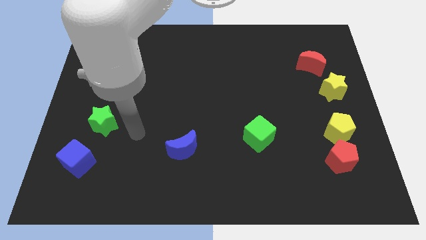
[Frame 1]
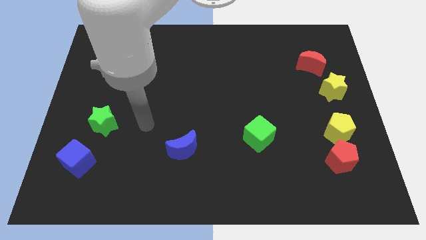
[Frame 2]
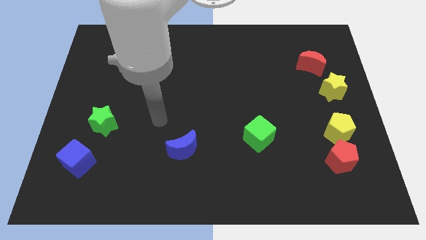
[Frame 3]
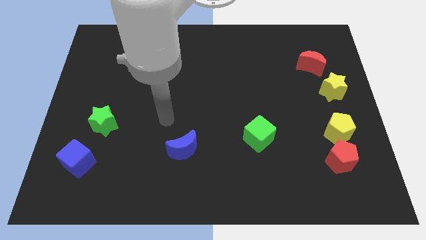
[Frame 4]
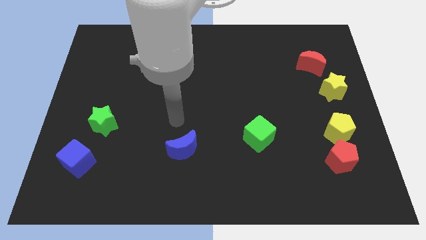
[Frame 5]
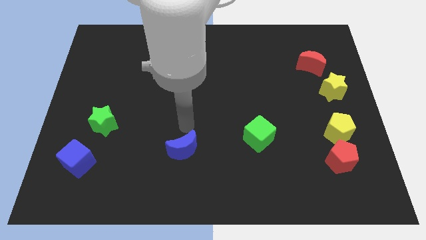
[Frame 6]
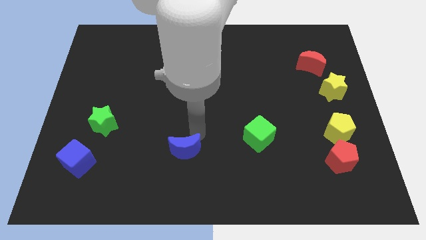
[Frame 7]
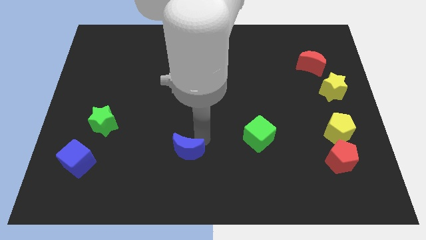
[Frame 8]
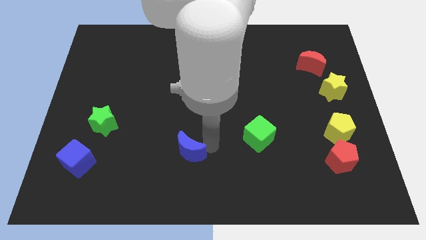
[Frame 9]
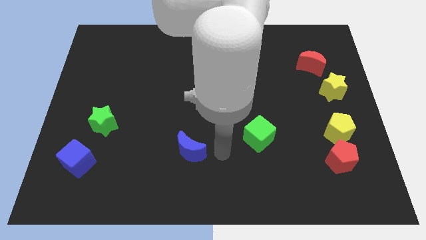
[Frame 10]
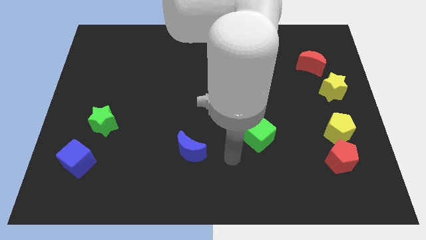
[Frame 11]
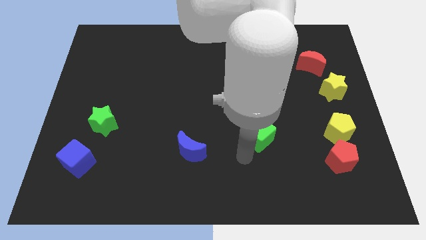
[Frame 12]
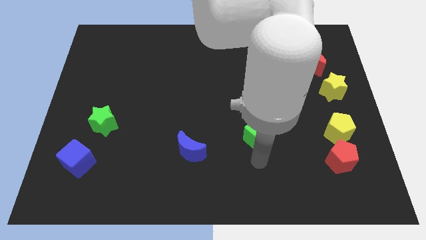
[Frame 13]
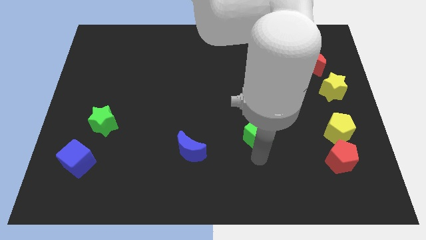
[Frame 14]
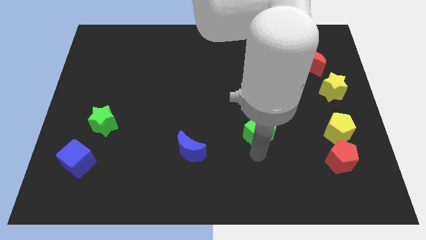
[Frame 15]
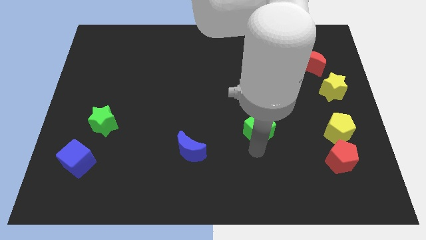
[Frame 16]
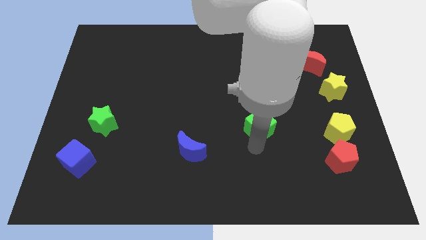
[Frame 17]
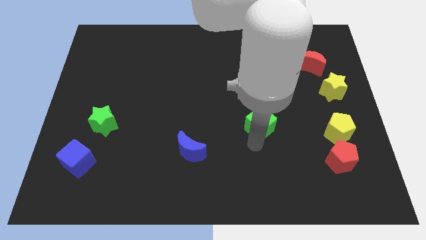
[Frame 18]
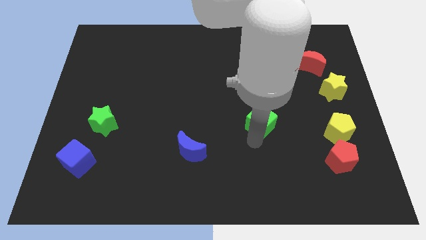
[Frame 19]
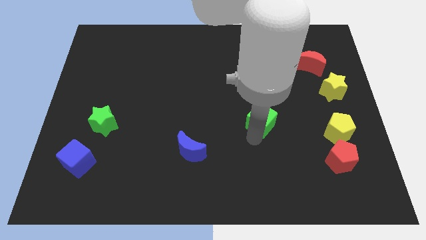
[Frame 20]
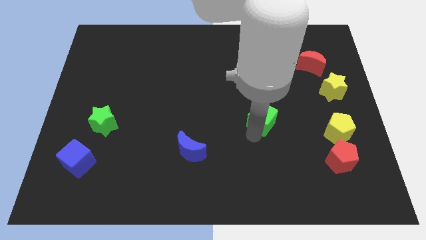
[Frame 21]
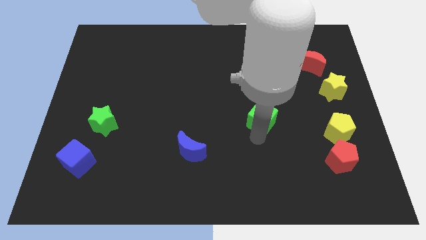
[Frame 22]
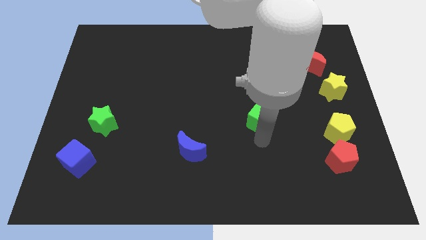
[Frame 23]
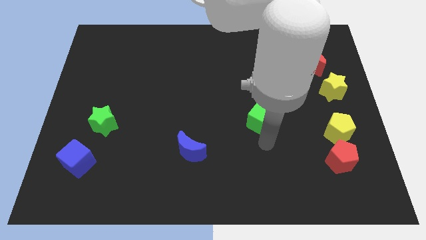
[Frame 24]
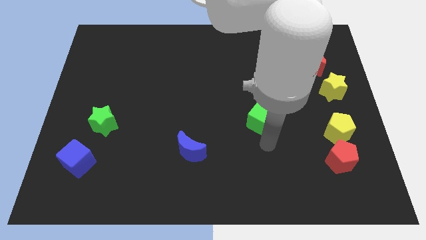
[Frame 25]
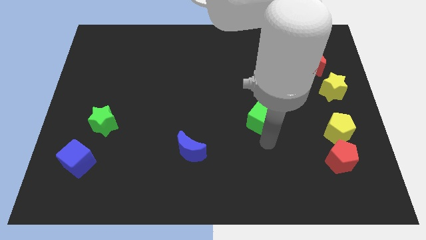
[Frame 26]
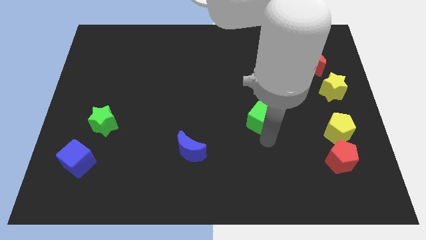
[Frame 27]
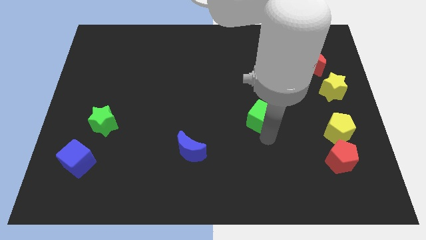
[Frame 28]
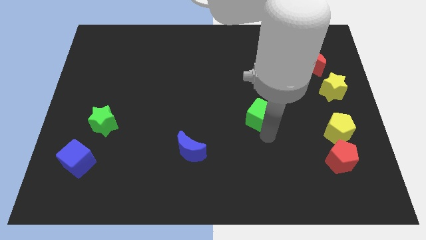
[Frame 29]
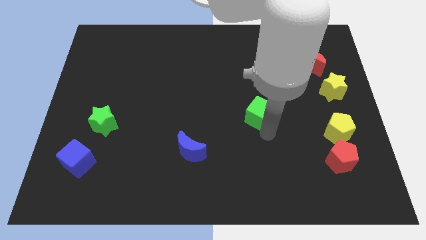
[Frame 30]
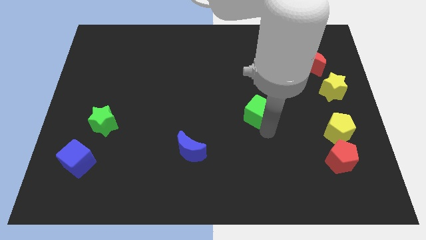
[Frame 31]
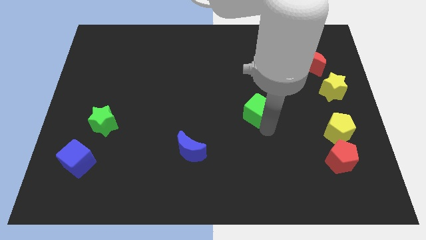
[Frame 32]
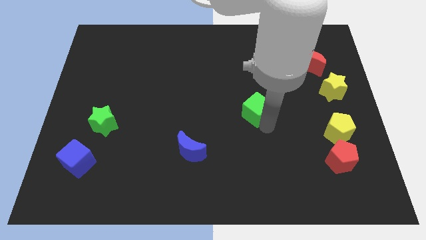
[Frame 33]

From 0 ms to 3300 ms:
slightly move the green cube up

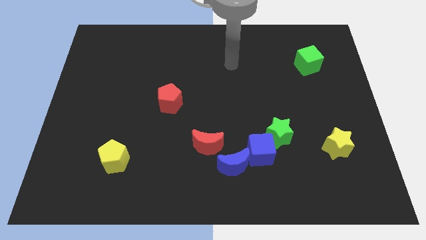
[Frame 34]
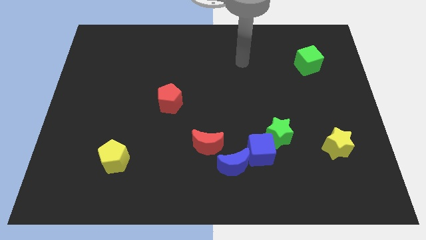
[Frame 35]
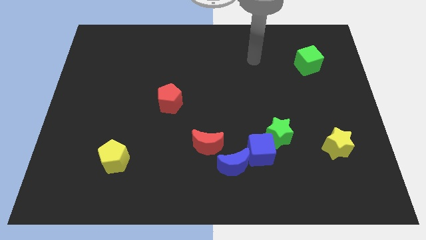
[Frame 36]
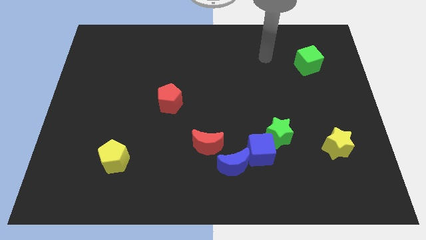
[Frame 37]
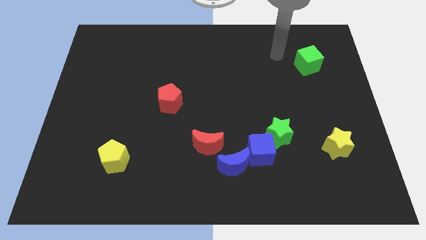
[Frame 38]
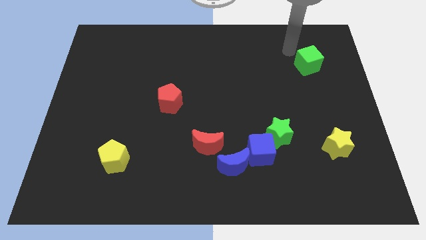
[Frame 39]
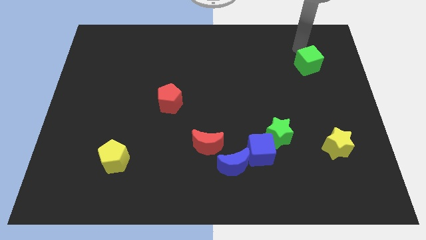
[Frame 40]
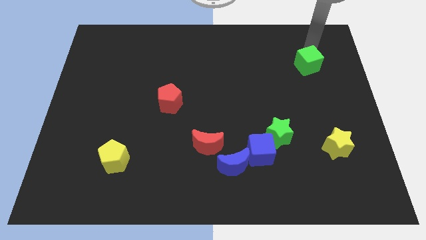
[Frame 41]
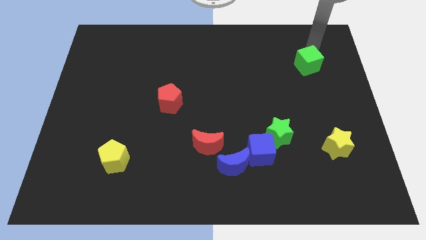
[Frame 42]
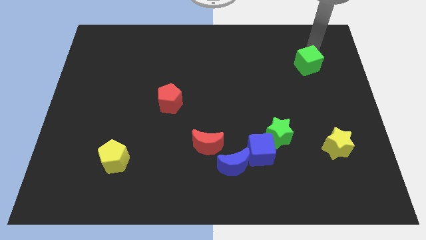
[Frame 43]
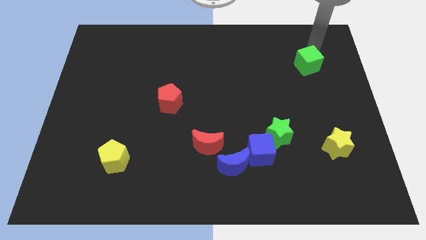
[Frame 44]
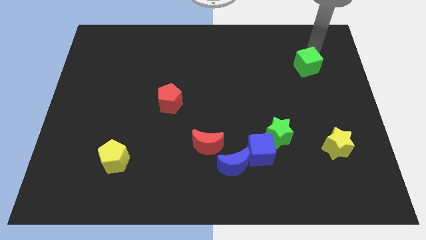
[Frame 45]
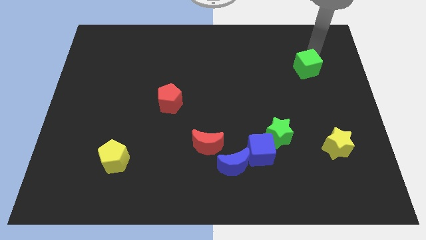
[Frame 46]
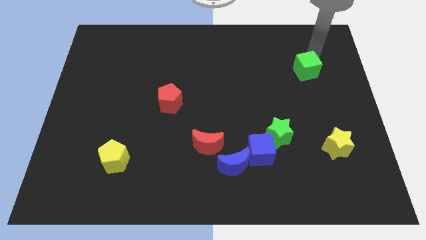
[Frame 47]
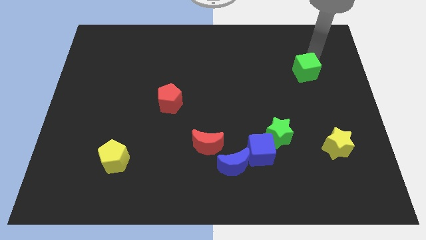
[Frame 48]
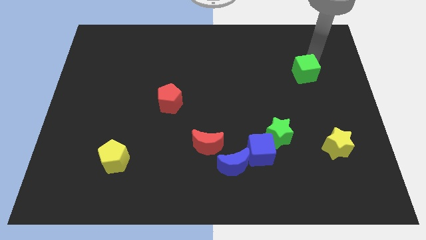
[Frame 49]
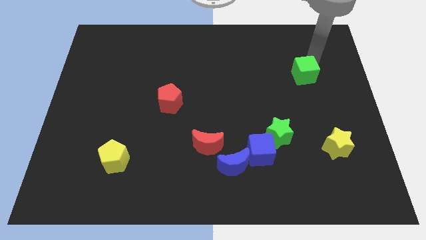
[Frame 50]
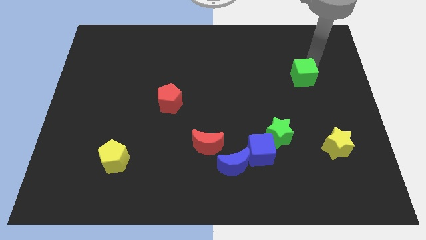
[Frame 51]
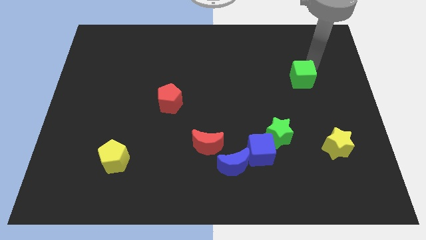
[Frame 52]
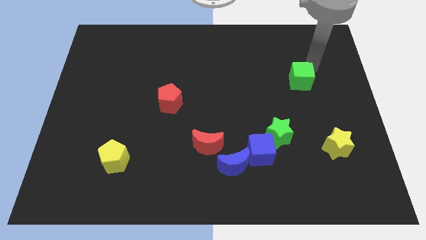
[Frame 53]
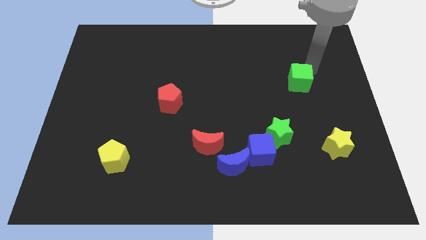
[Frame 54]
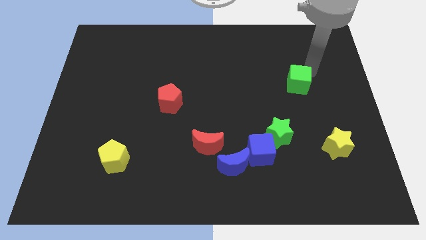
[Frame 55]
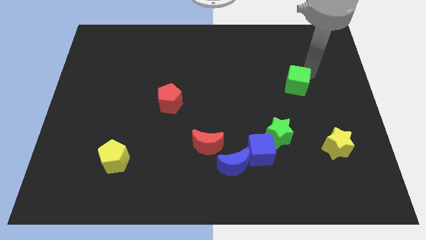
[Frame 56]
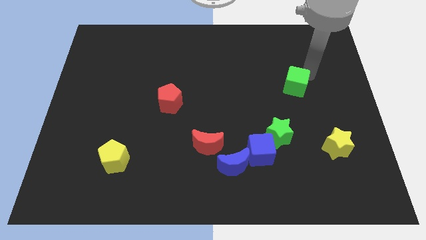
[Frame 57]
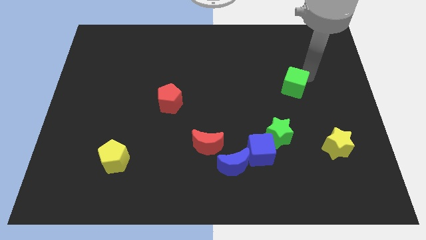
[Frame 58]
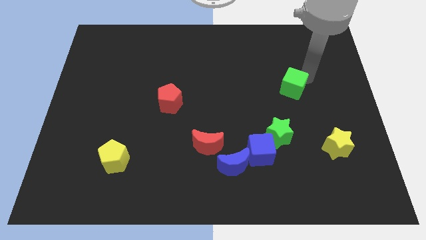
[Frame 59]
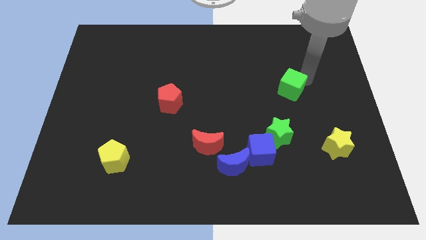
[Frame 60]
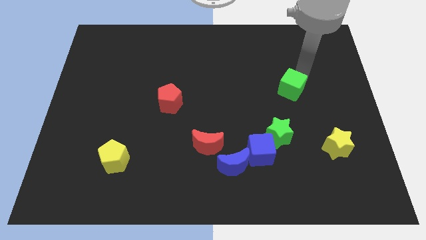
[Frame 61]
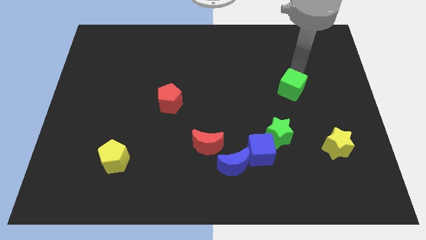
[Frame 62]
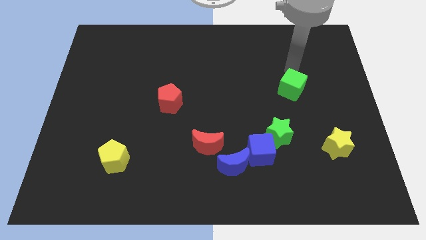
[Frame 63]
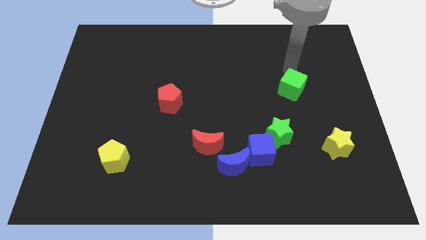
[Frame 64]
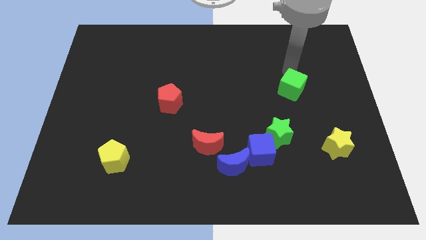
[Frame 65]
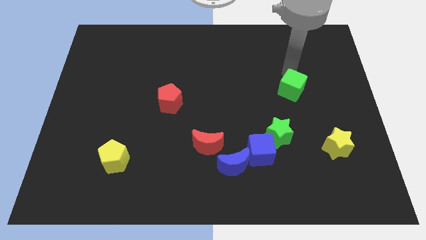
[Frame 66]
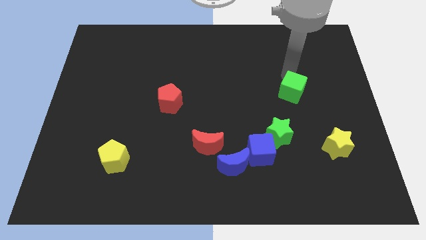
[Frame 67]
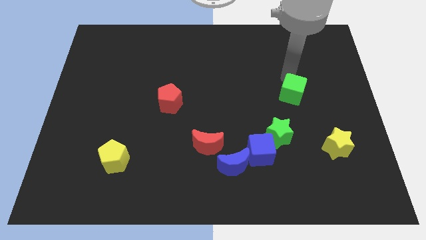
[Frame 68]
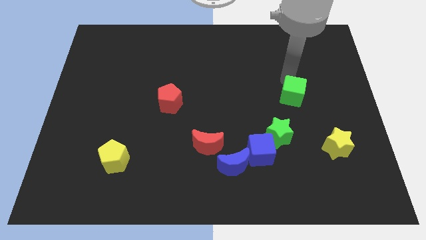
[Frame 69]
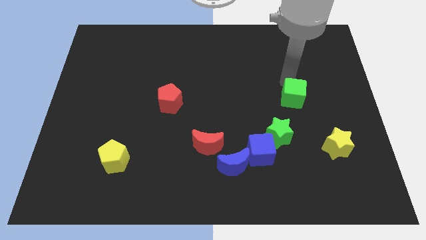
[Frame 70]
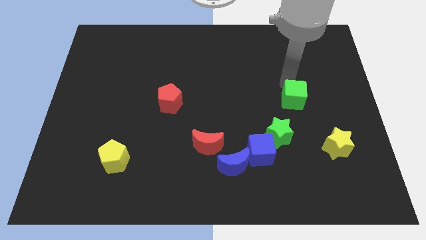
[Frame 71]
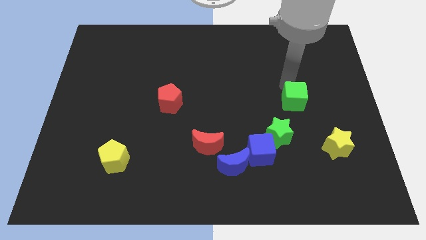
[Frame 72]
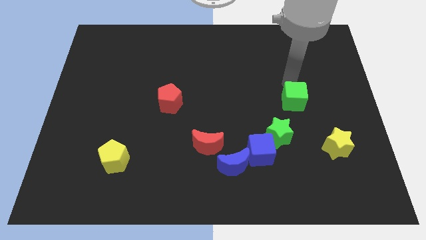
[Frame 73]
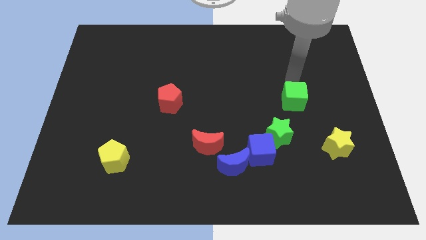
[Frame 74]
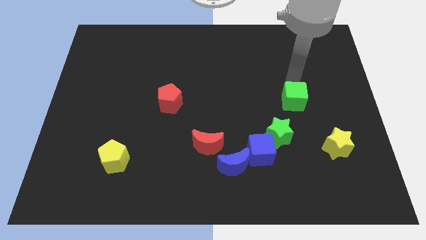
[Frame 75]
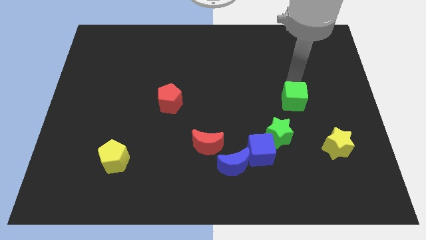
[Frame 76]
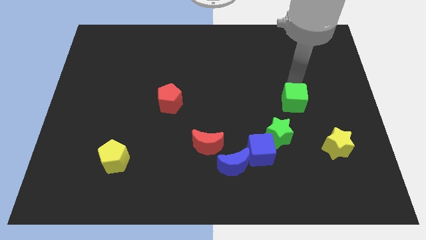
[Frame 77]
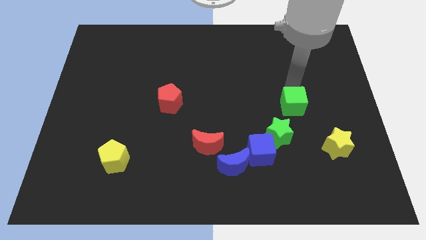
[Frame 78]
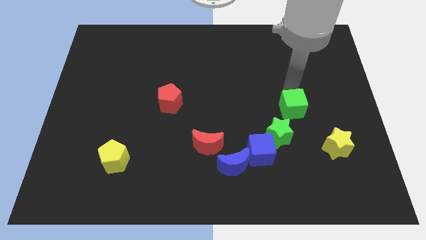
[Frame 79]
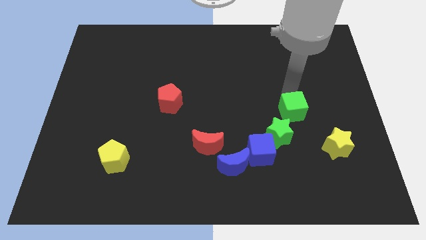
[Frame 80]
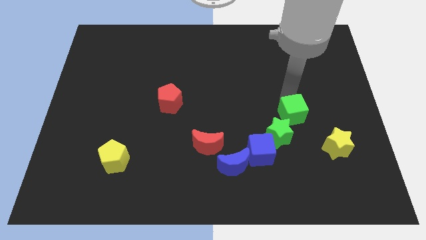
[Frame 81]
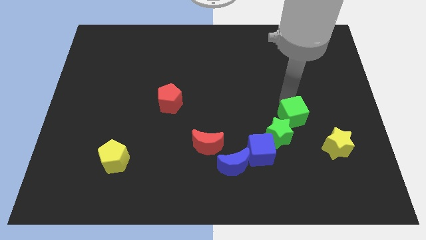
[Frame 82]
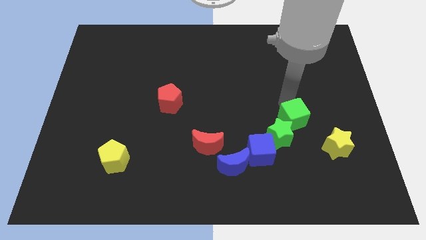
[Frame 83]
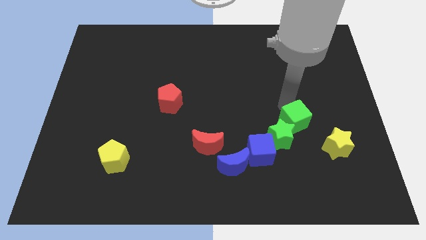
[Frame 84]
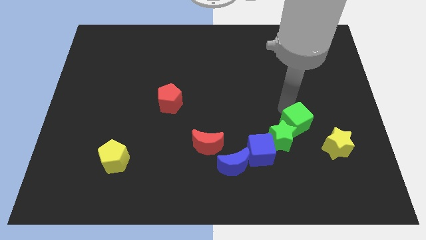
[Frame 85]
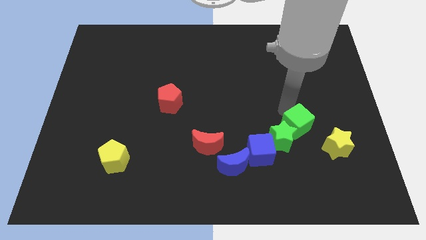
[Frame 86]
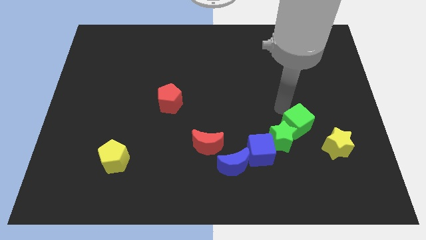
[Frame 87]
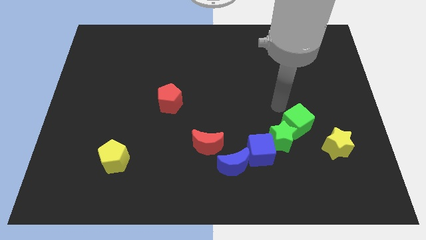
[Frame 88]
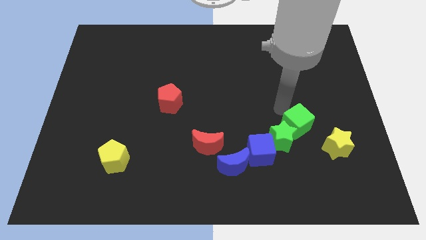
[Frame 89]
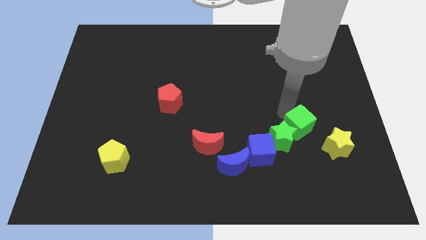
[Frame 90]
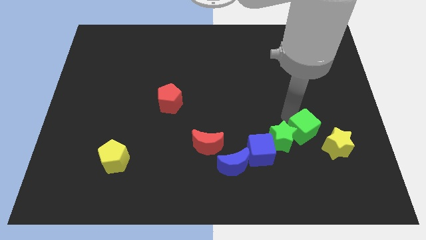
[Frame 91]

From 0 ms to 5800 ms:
move the green cube downwards
